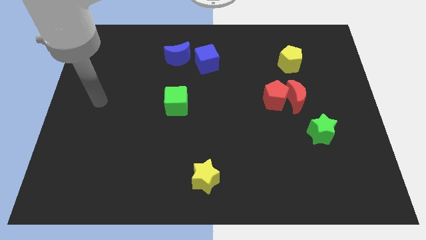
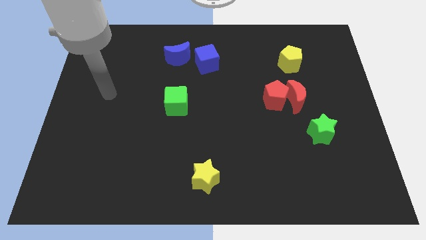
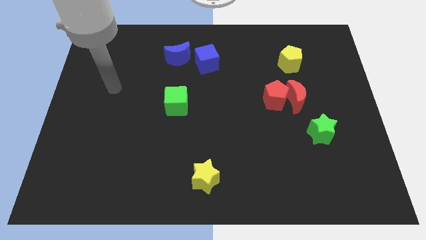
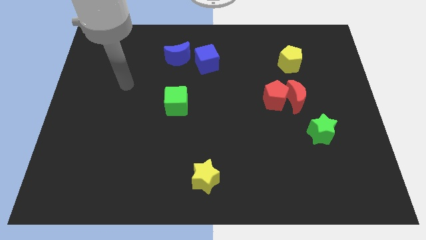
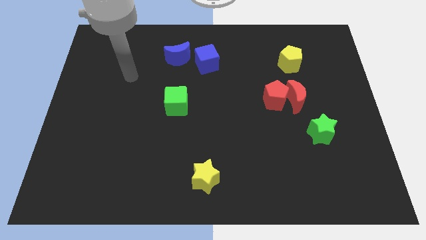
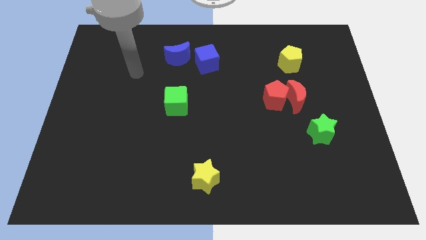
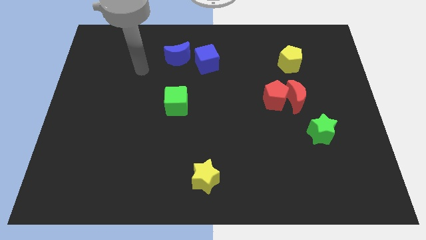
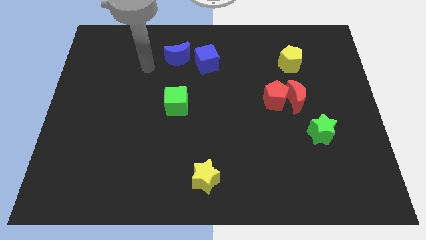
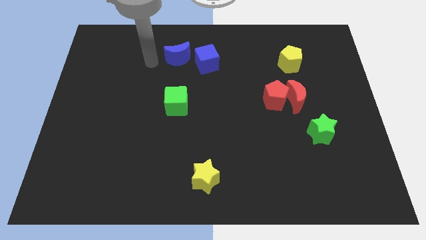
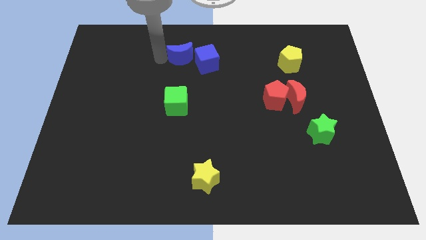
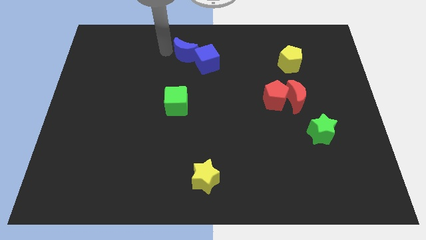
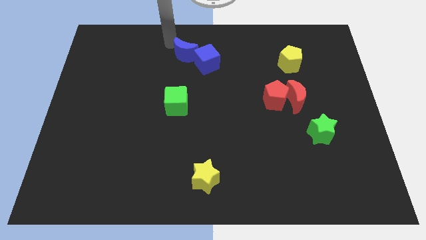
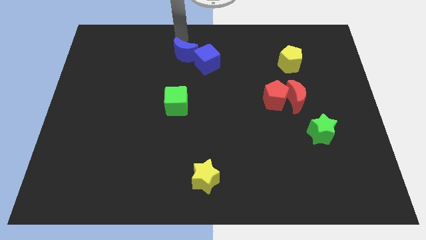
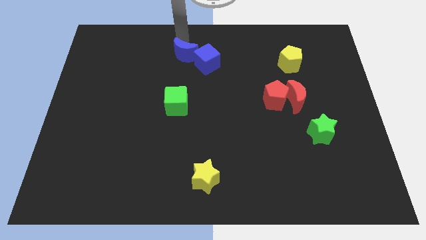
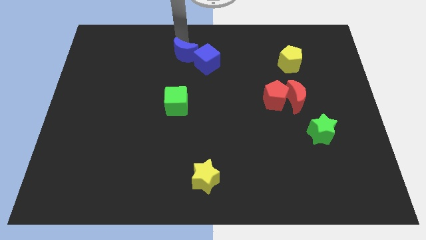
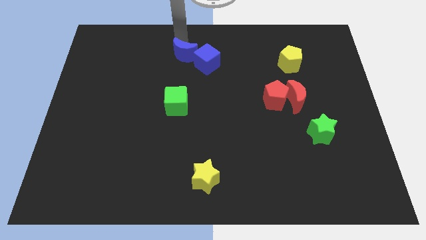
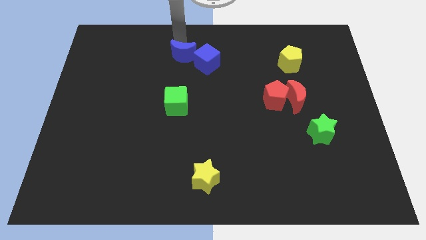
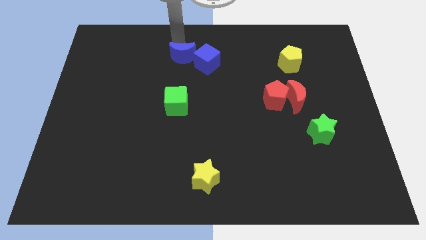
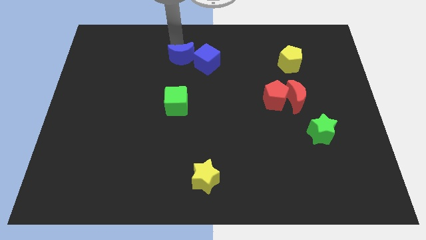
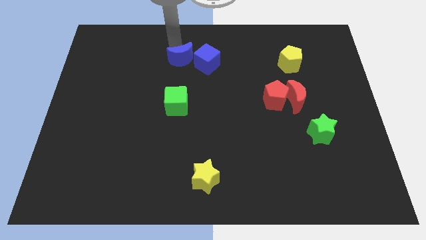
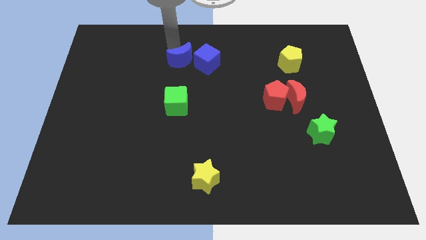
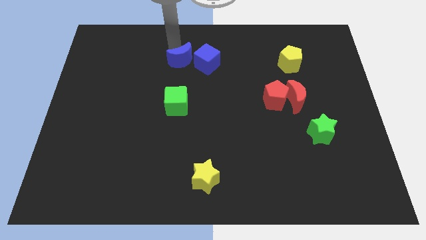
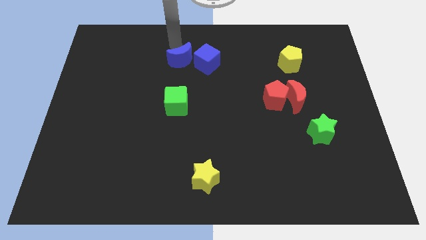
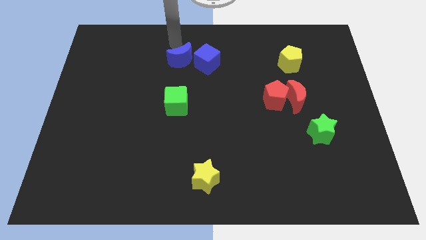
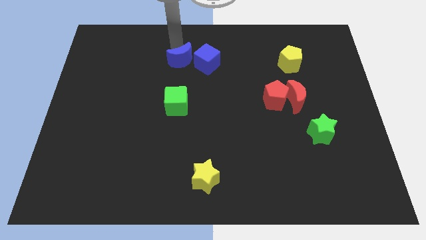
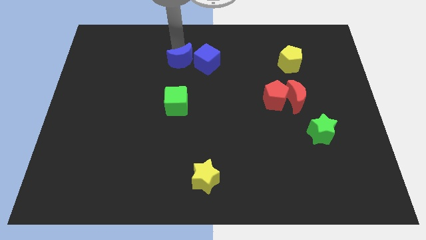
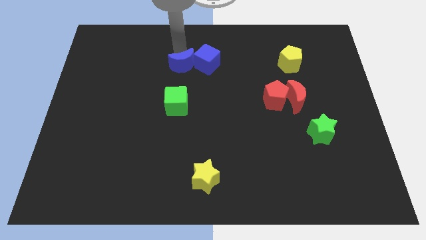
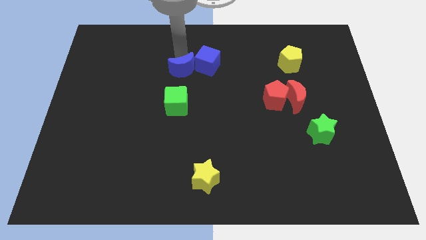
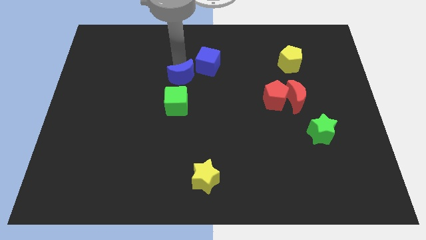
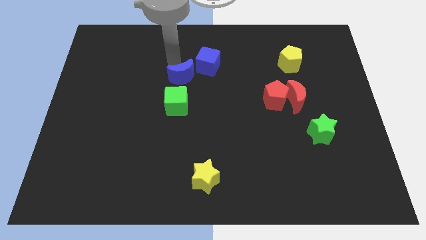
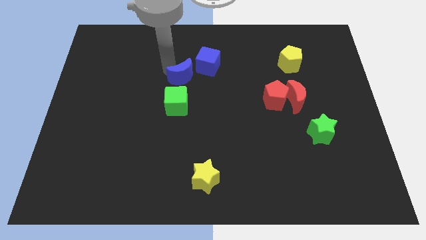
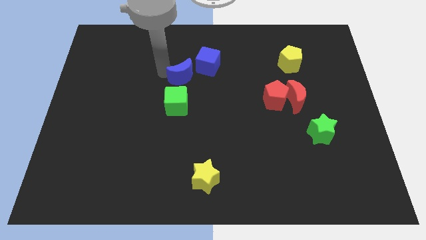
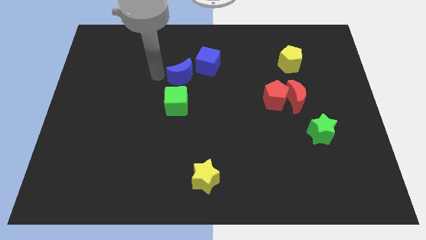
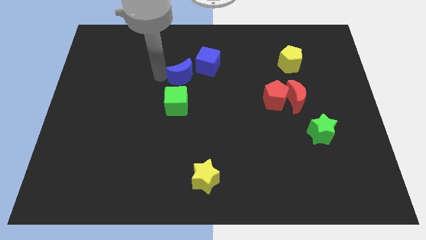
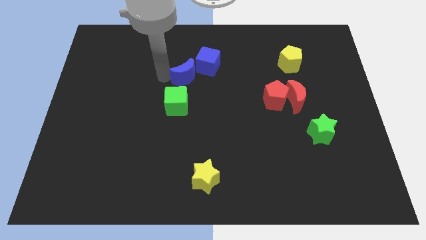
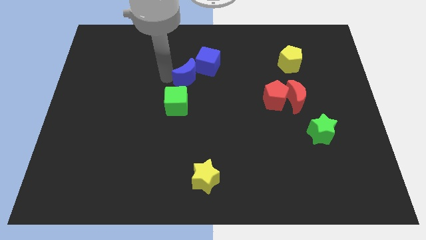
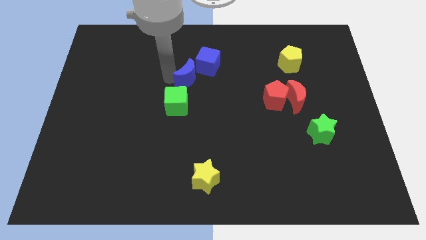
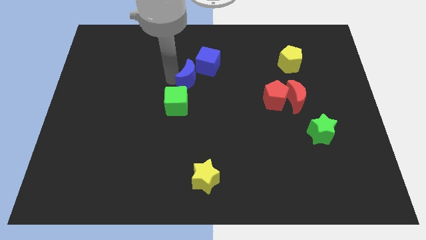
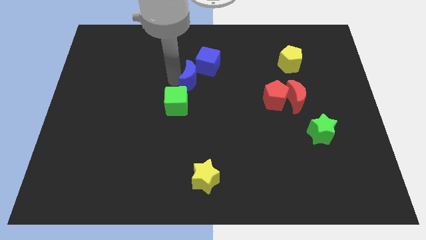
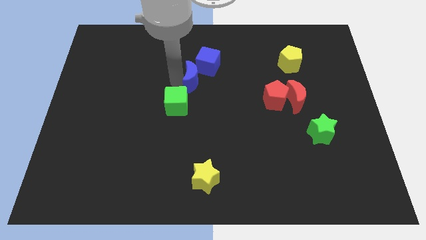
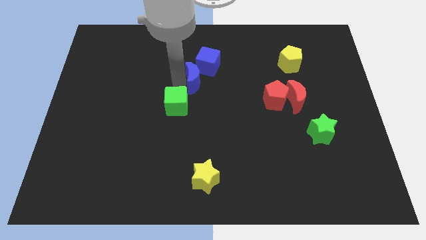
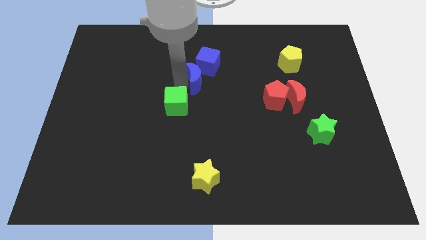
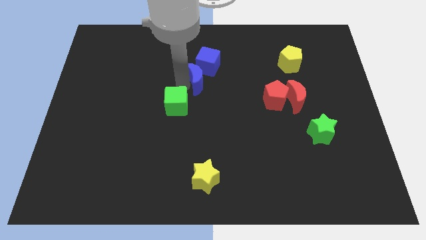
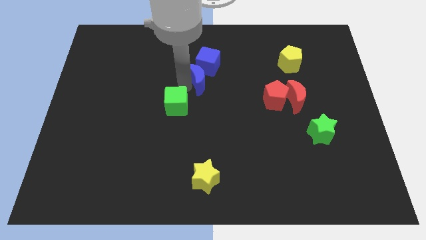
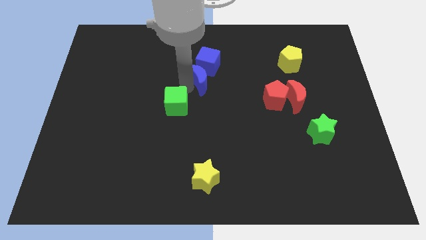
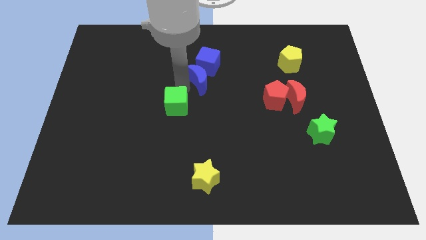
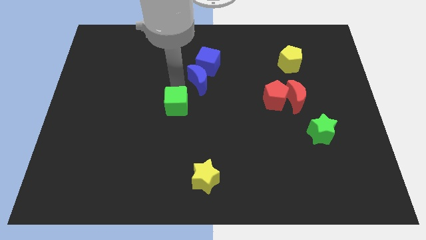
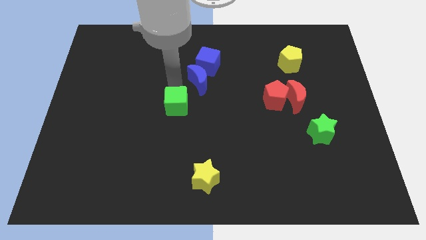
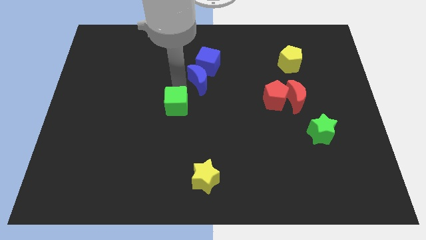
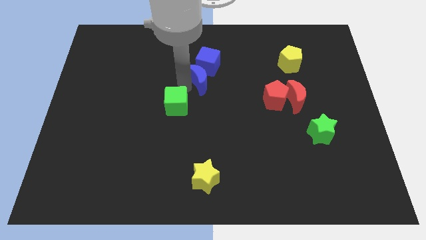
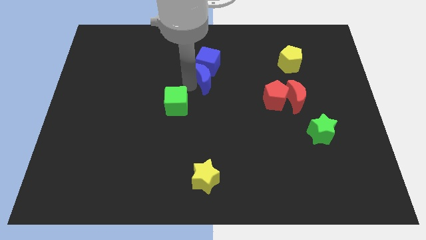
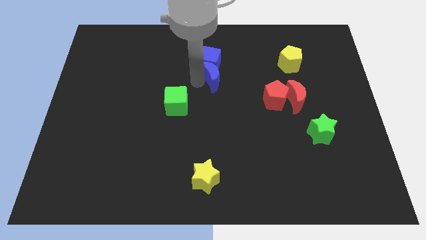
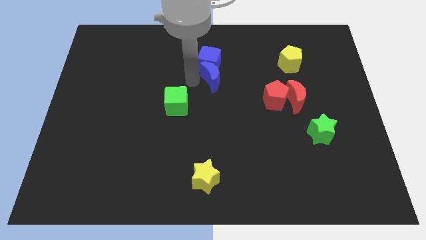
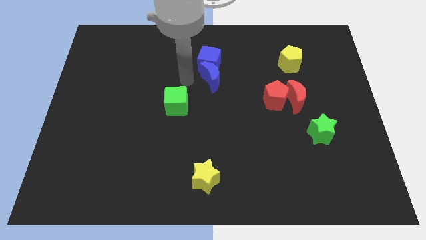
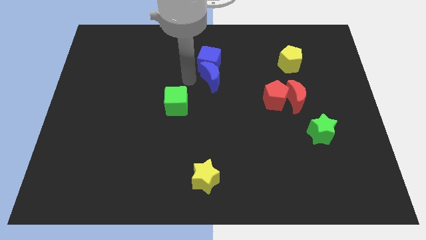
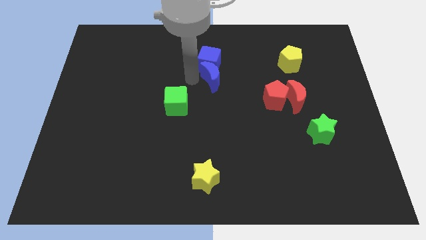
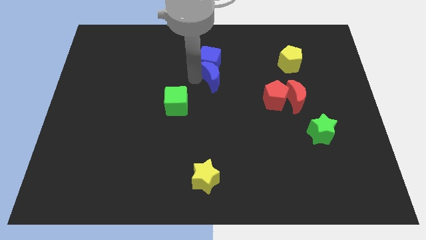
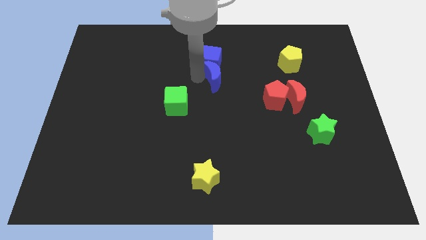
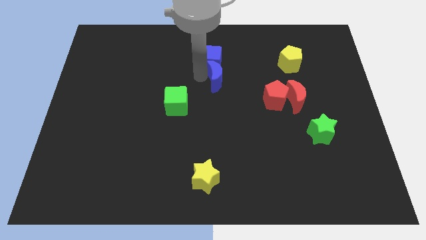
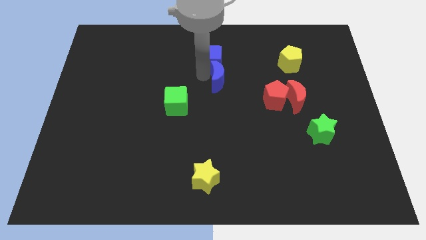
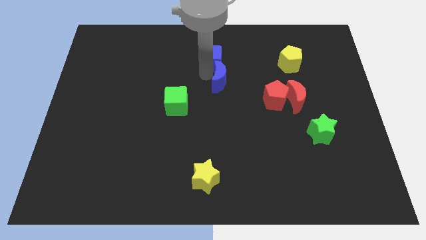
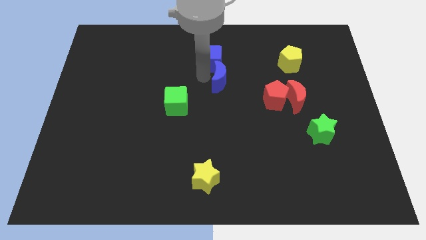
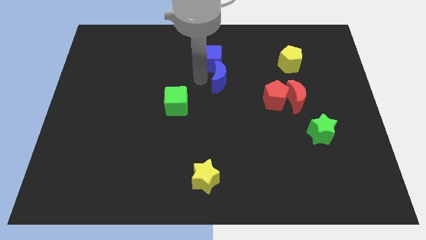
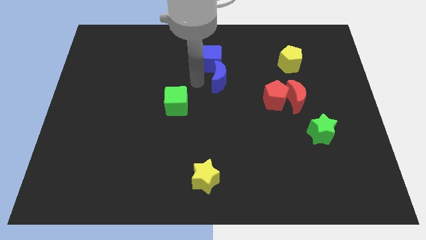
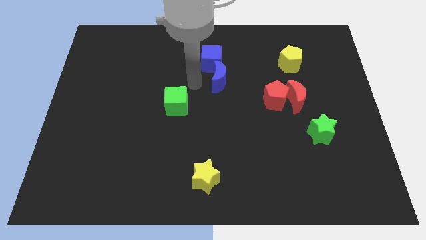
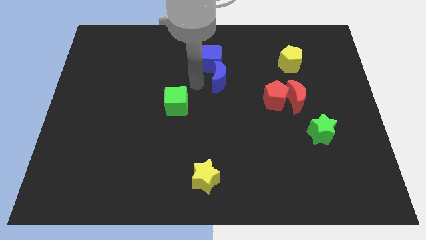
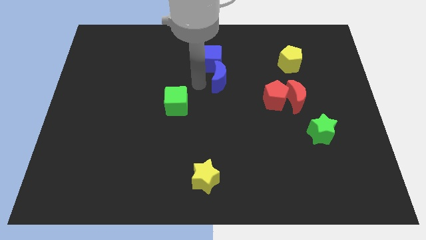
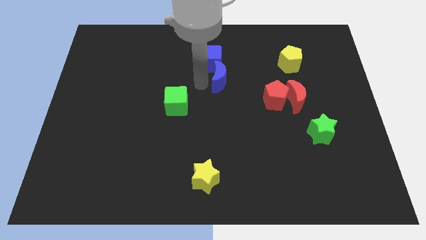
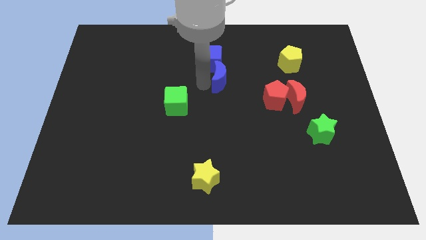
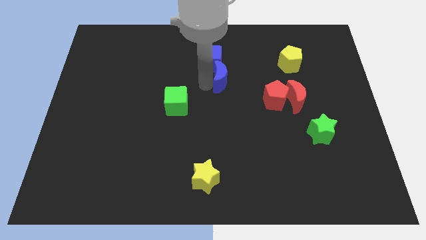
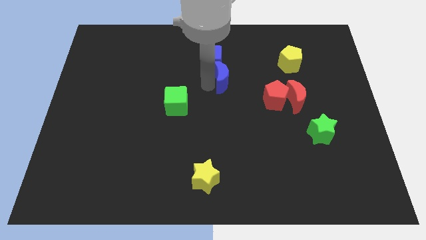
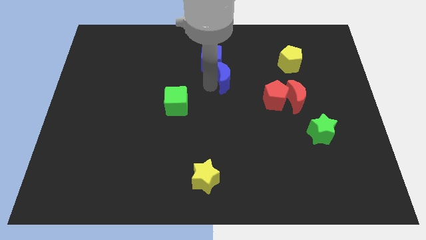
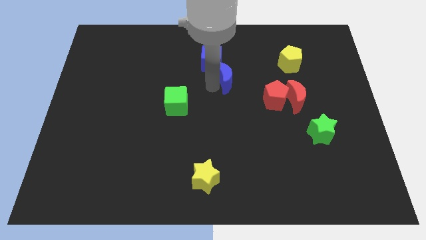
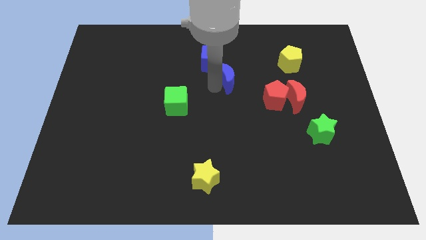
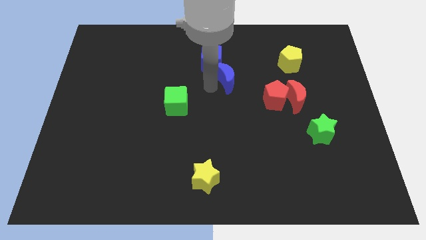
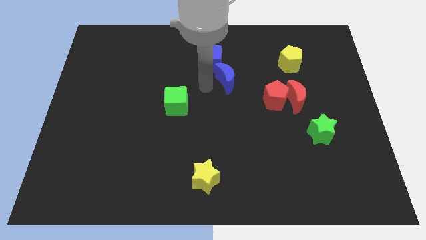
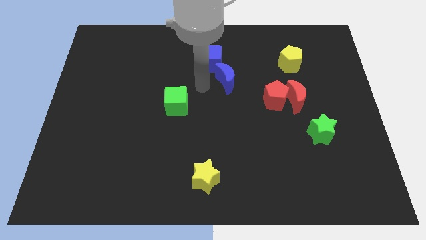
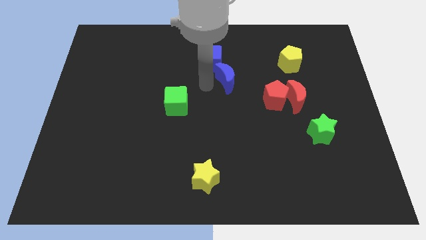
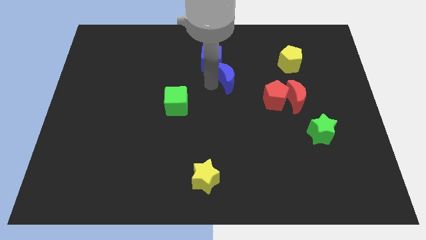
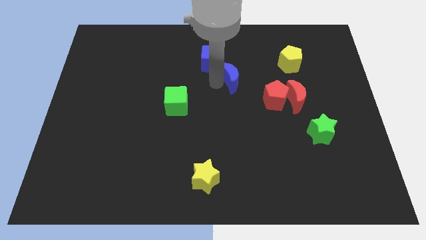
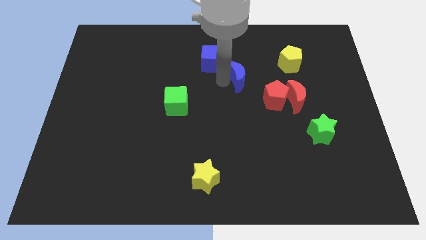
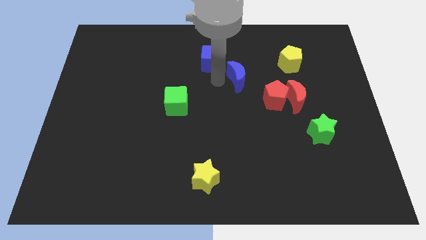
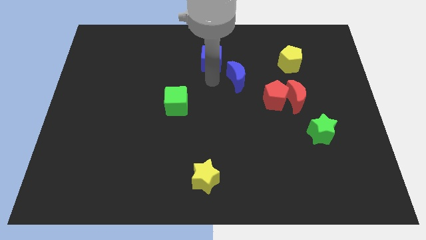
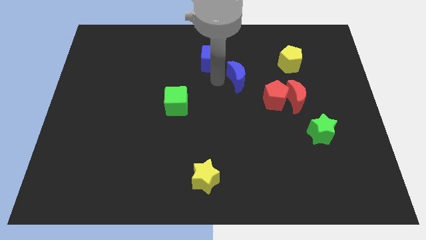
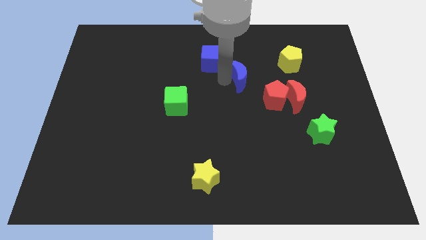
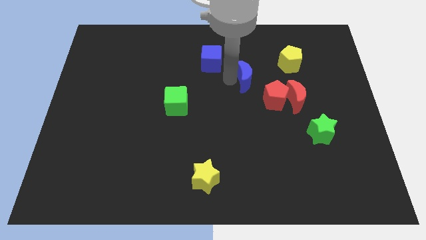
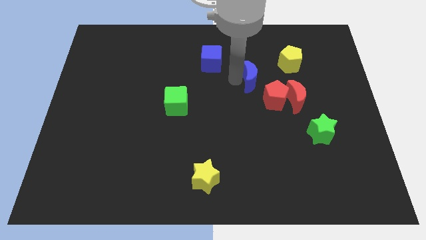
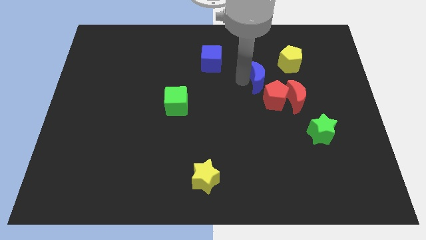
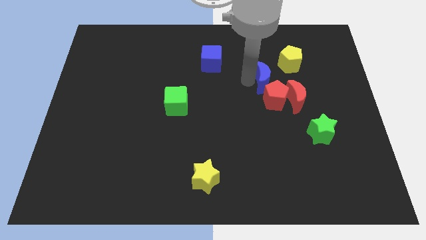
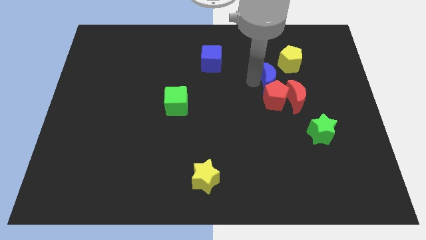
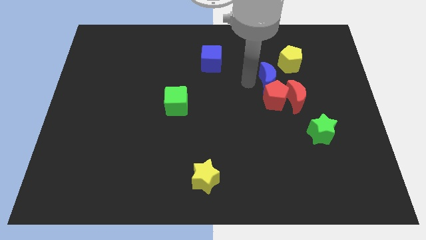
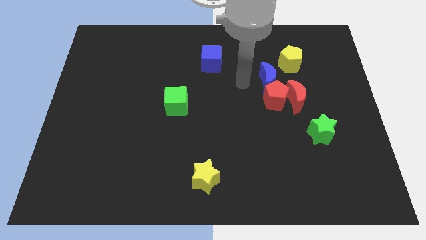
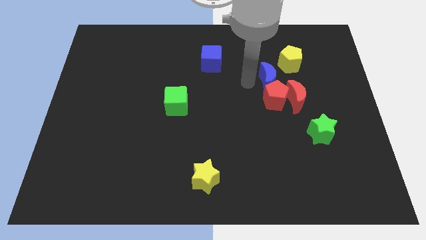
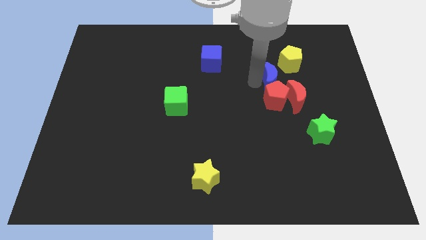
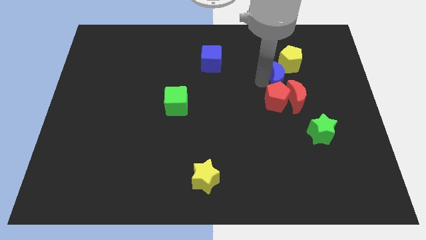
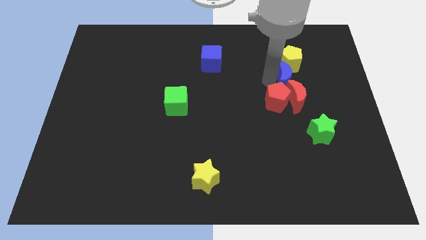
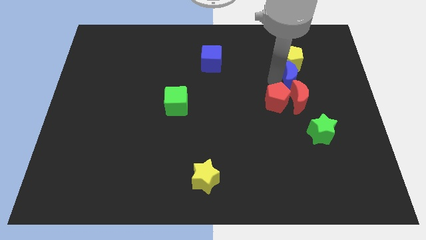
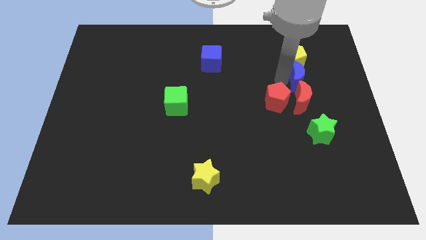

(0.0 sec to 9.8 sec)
put the blue moon to the bottom right side of the yellow pentagon
